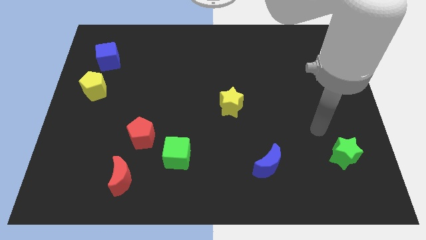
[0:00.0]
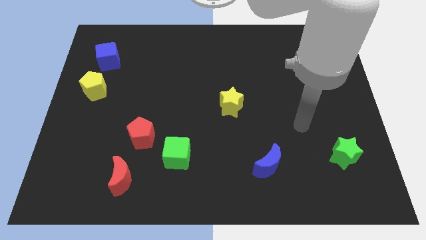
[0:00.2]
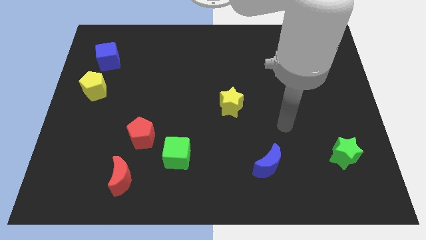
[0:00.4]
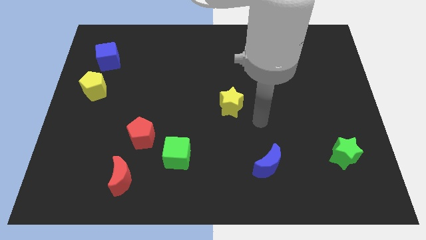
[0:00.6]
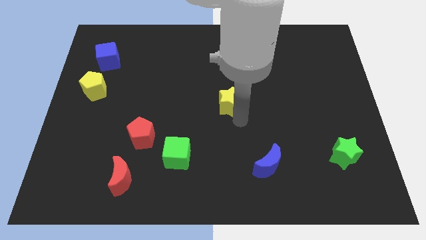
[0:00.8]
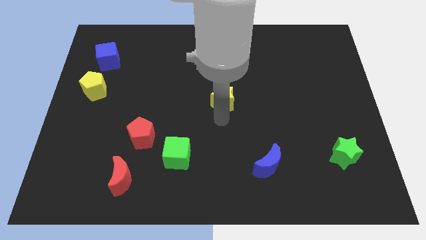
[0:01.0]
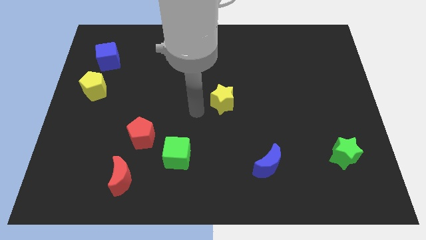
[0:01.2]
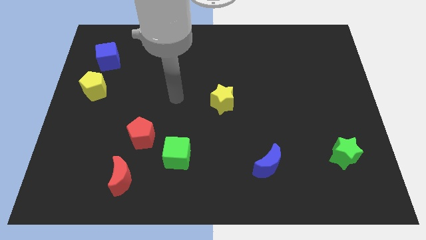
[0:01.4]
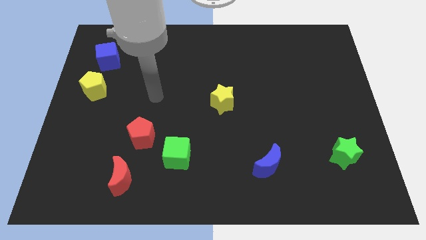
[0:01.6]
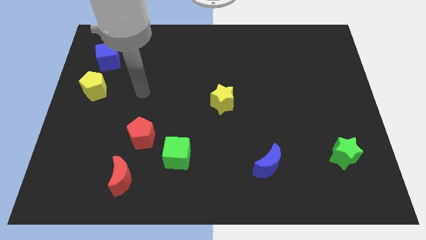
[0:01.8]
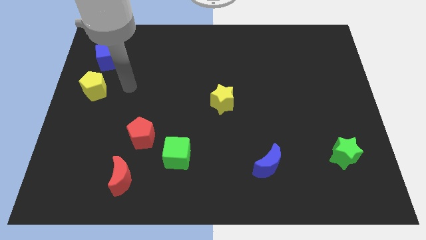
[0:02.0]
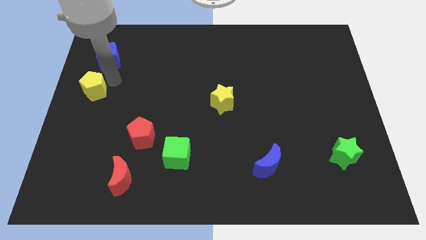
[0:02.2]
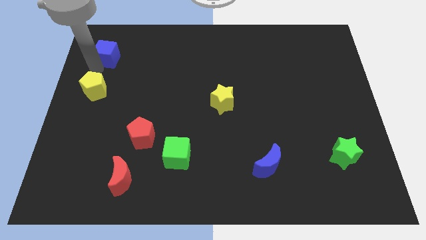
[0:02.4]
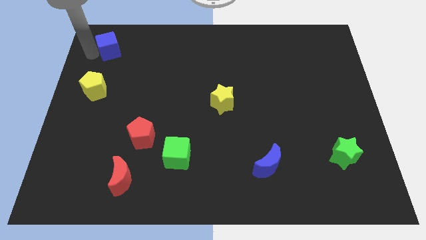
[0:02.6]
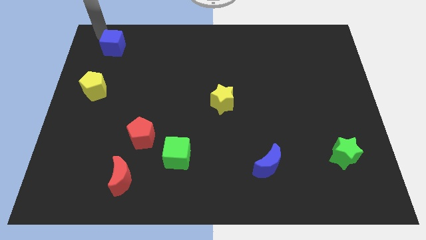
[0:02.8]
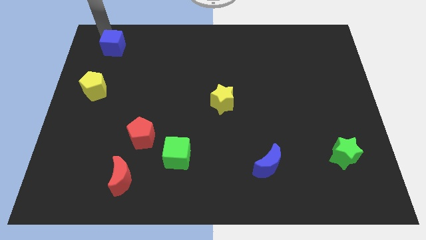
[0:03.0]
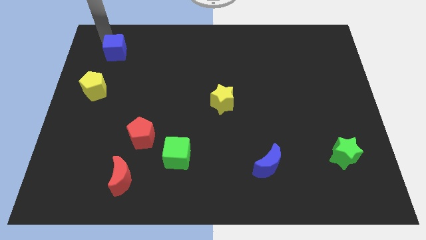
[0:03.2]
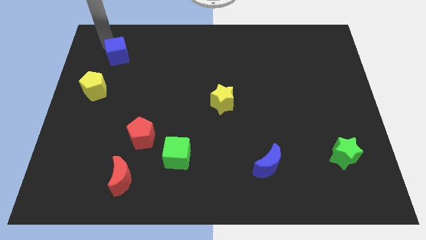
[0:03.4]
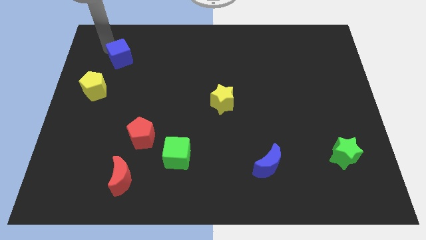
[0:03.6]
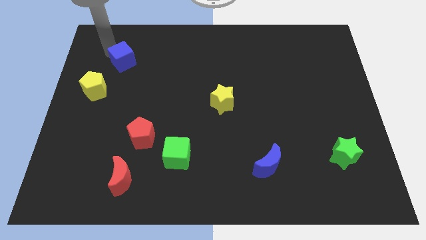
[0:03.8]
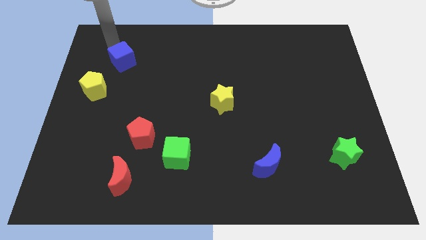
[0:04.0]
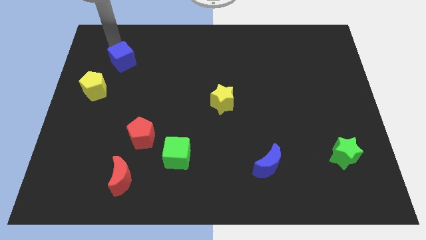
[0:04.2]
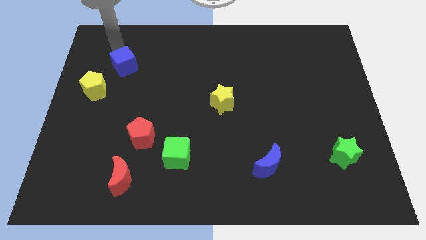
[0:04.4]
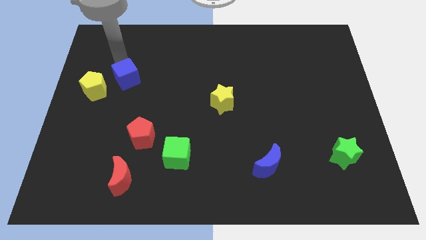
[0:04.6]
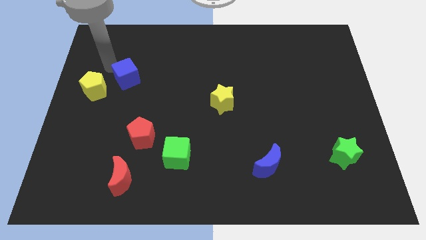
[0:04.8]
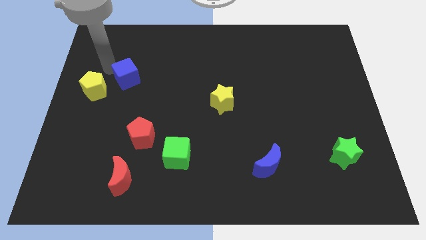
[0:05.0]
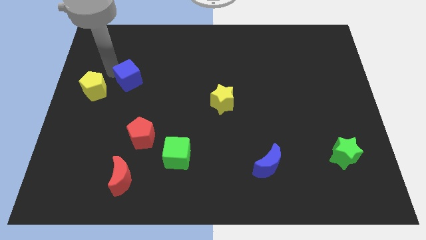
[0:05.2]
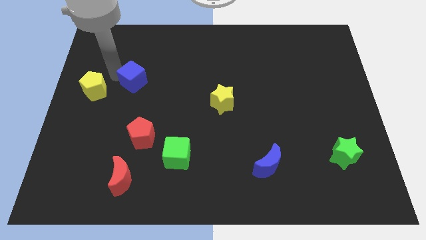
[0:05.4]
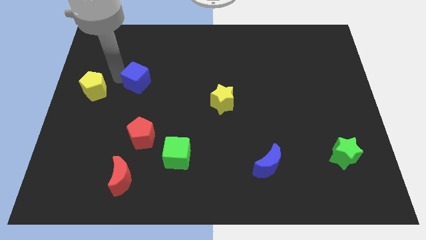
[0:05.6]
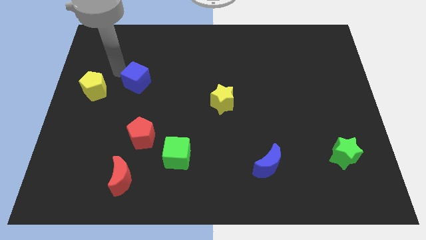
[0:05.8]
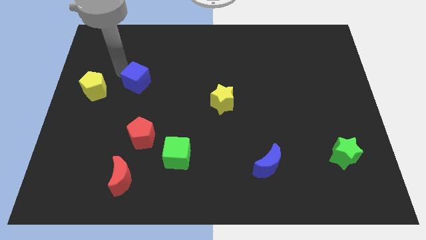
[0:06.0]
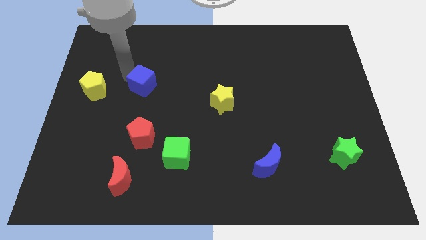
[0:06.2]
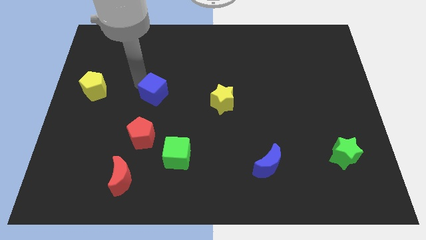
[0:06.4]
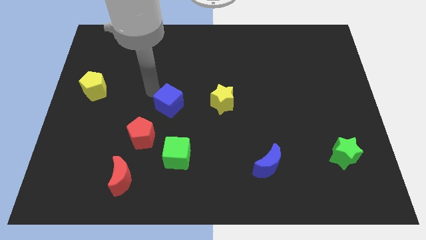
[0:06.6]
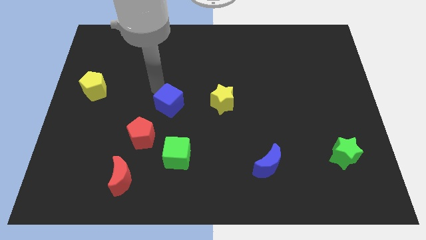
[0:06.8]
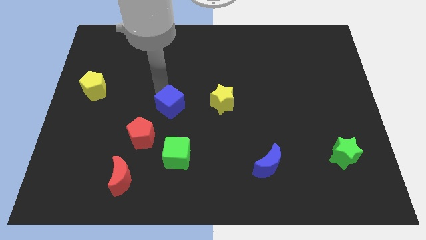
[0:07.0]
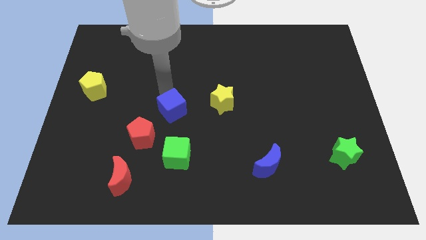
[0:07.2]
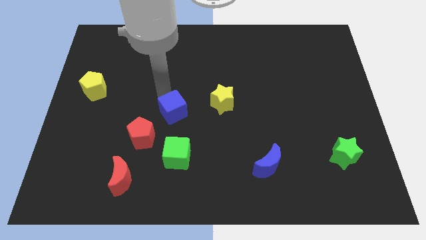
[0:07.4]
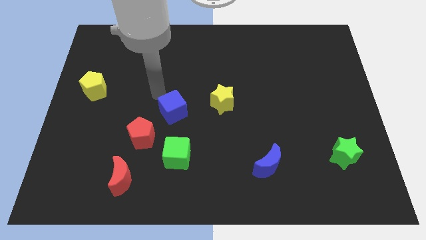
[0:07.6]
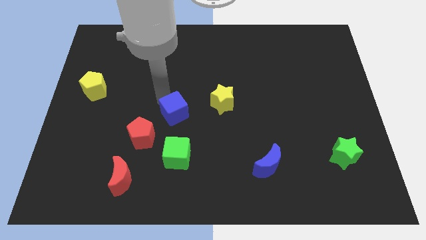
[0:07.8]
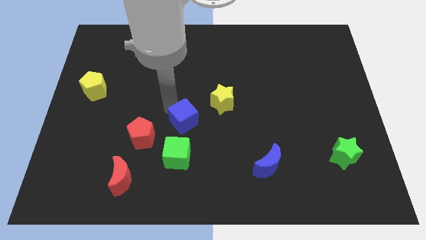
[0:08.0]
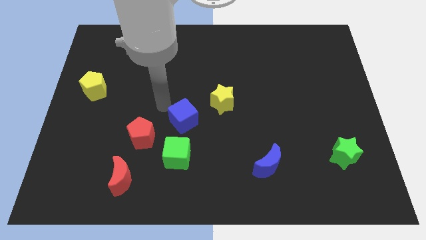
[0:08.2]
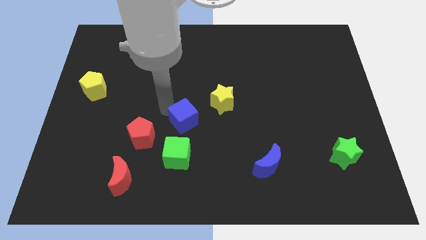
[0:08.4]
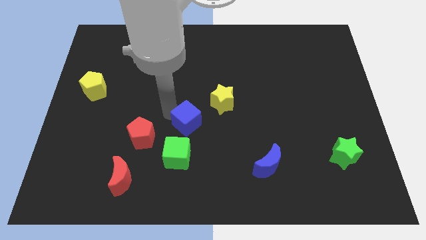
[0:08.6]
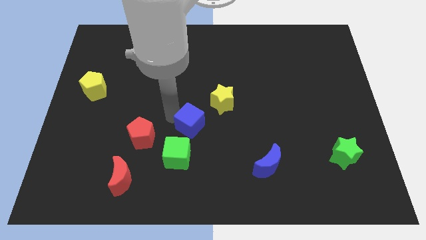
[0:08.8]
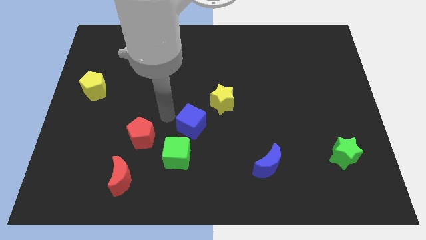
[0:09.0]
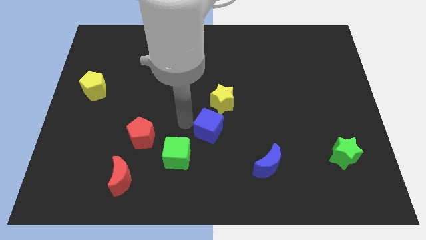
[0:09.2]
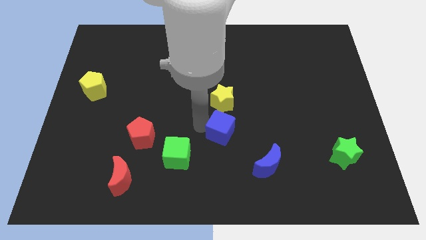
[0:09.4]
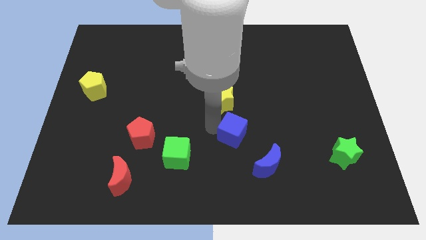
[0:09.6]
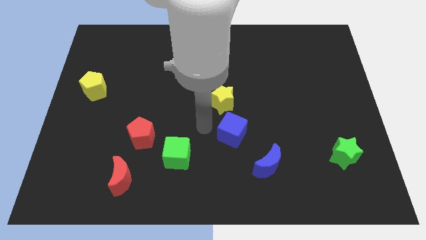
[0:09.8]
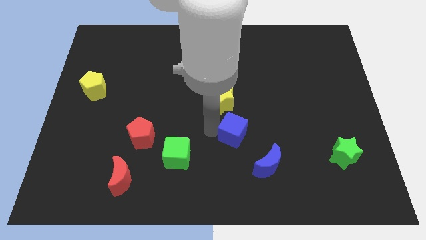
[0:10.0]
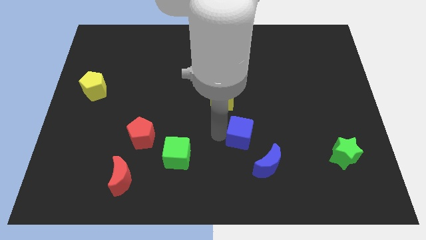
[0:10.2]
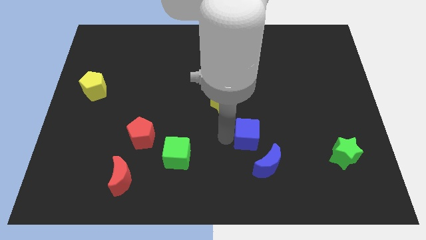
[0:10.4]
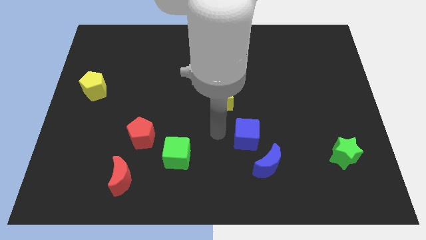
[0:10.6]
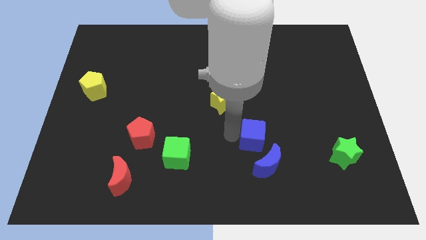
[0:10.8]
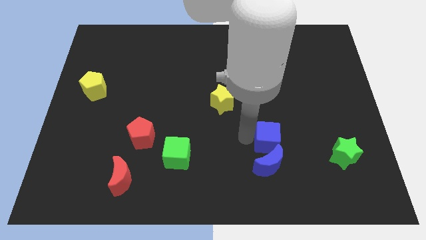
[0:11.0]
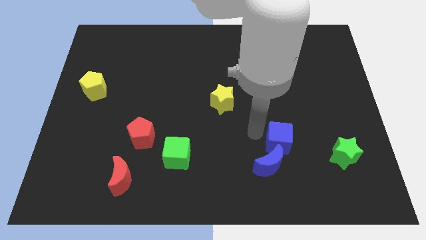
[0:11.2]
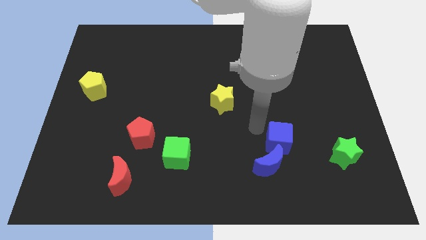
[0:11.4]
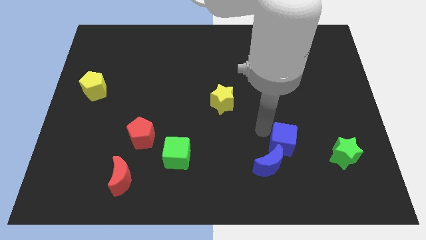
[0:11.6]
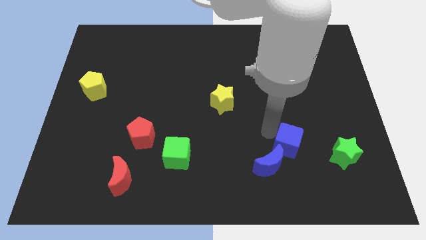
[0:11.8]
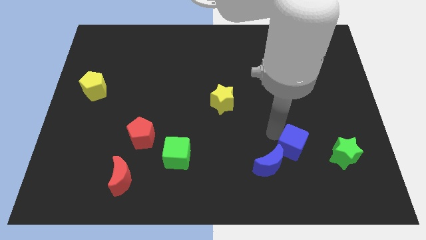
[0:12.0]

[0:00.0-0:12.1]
put the blue cube to the right side of the blue moon

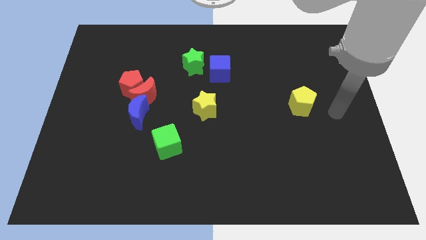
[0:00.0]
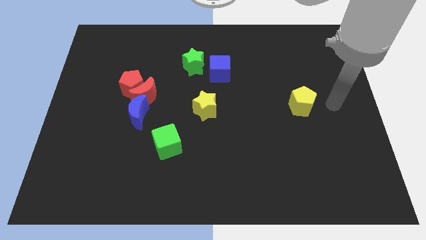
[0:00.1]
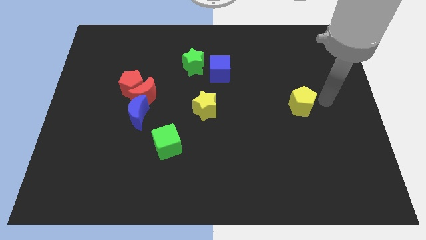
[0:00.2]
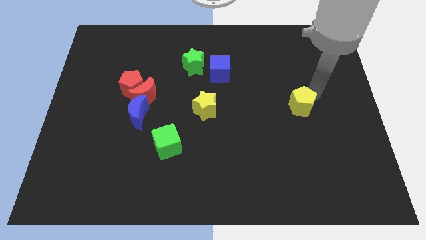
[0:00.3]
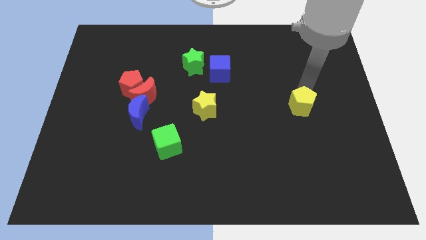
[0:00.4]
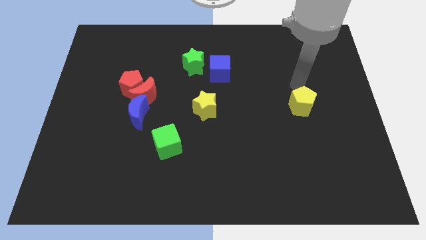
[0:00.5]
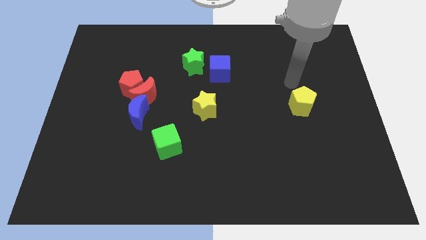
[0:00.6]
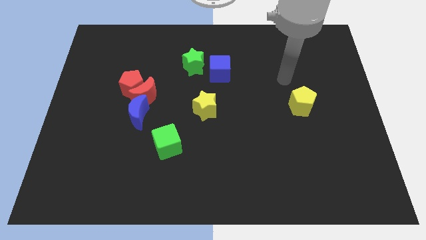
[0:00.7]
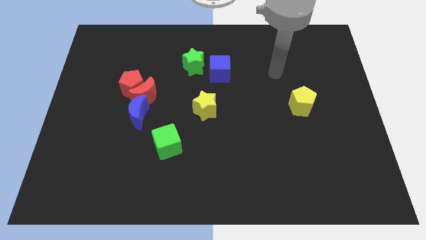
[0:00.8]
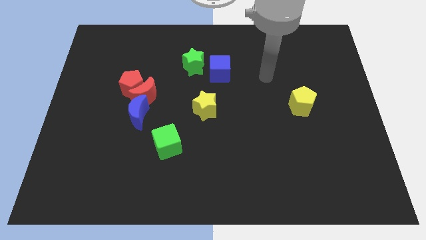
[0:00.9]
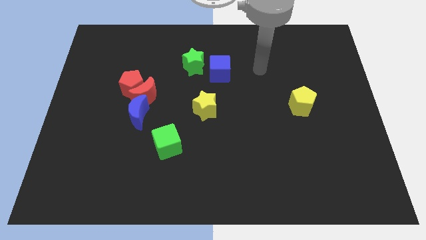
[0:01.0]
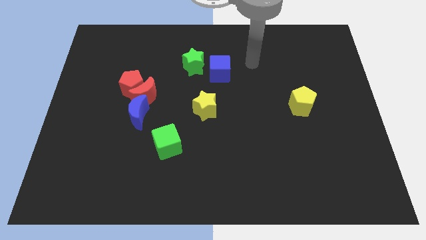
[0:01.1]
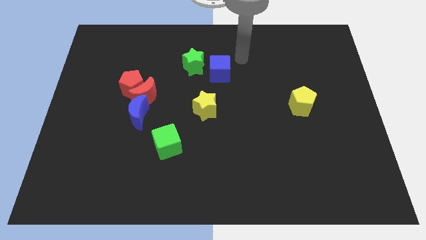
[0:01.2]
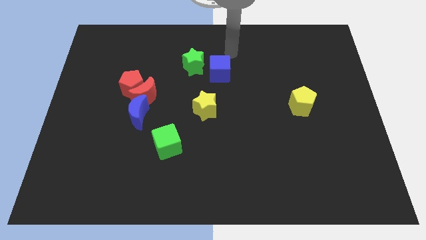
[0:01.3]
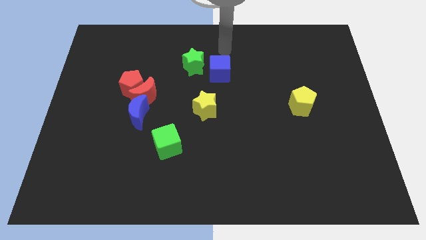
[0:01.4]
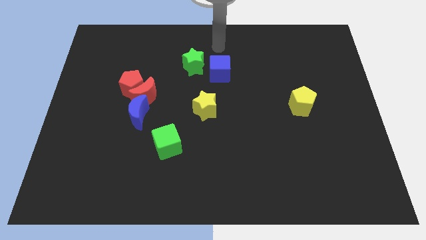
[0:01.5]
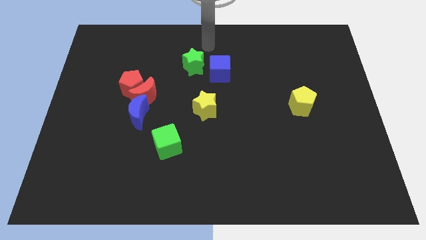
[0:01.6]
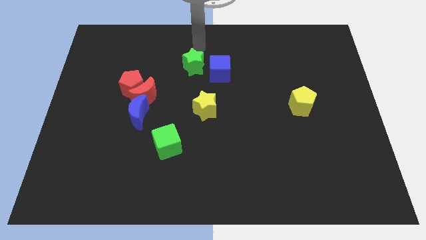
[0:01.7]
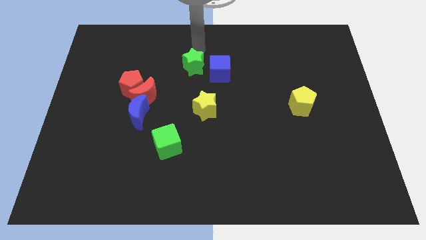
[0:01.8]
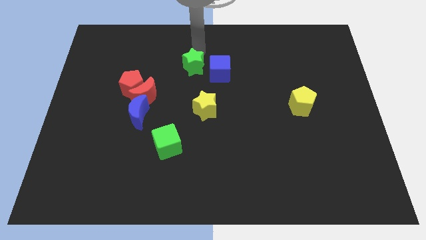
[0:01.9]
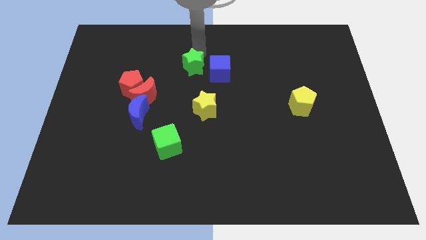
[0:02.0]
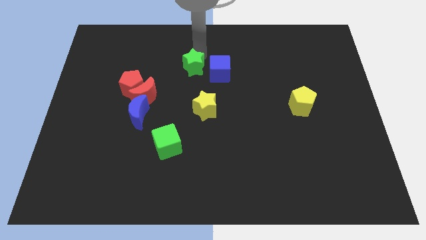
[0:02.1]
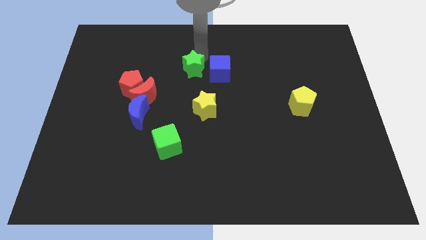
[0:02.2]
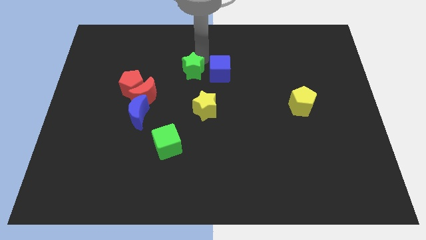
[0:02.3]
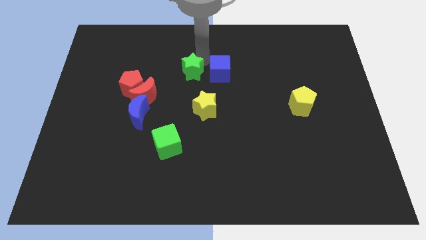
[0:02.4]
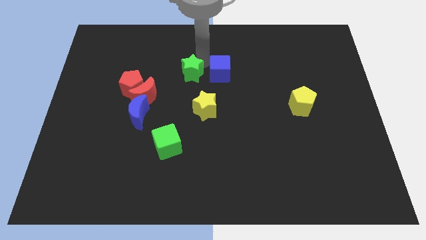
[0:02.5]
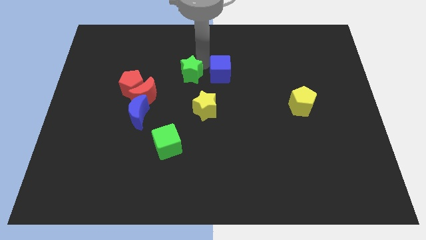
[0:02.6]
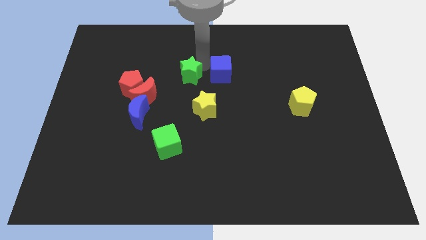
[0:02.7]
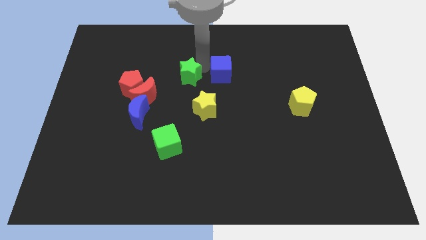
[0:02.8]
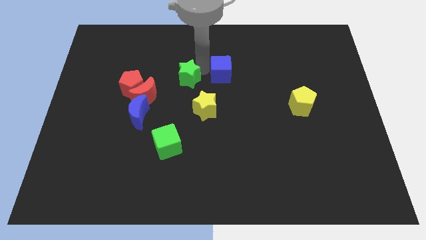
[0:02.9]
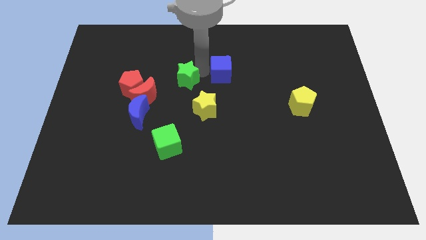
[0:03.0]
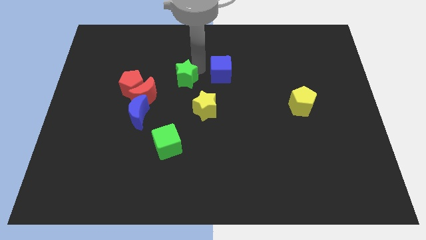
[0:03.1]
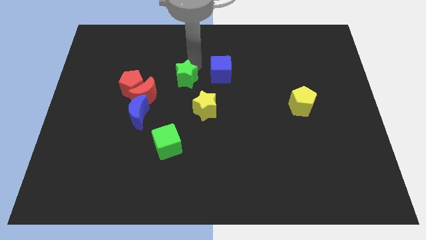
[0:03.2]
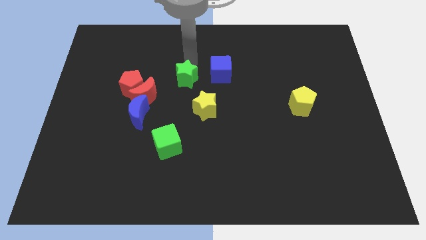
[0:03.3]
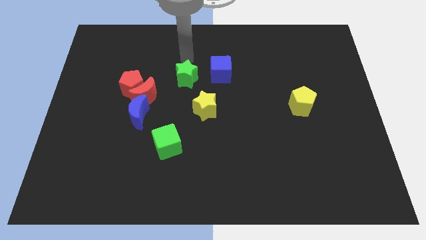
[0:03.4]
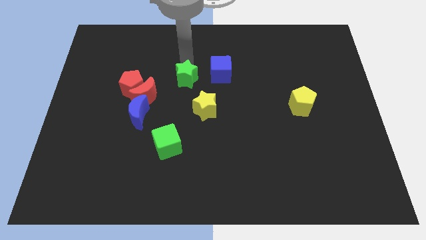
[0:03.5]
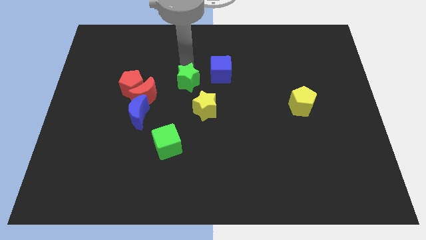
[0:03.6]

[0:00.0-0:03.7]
move the green star to the right of the red moon
